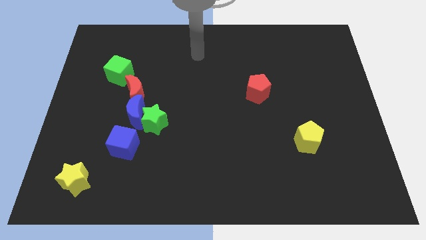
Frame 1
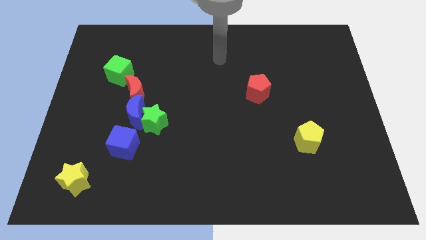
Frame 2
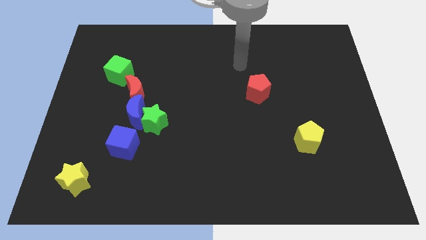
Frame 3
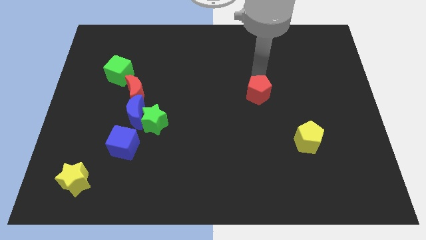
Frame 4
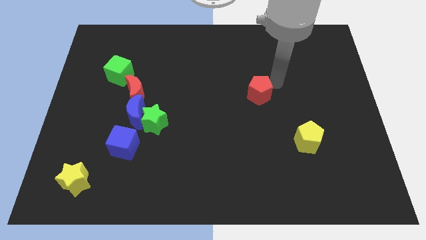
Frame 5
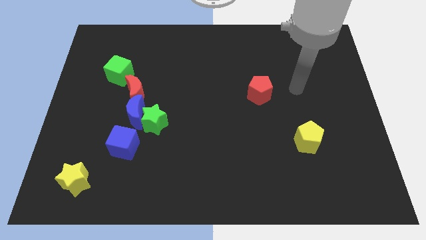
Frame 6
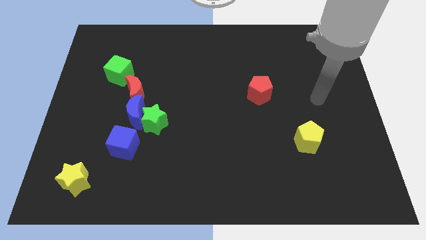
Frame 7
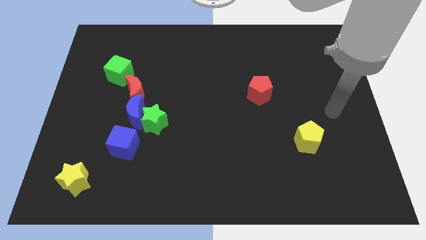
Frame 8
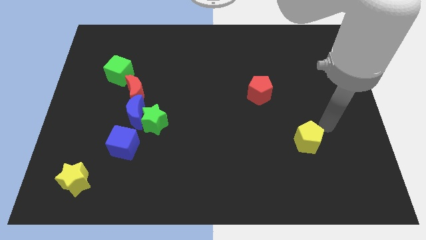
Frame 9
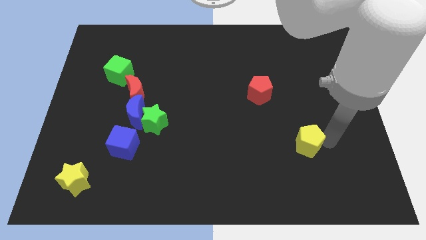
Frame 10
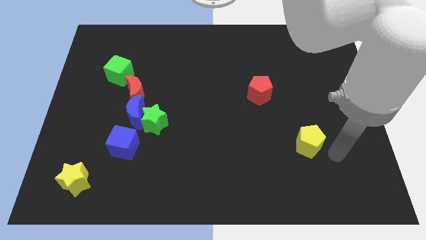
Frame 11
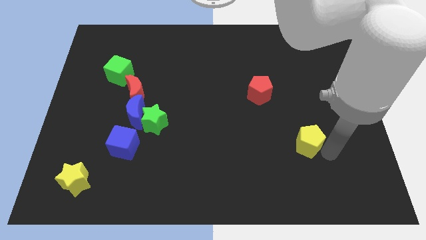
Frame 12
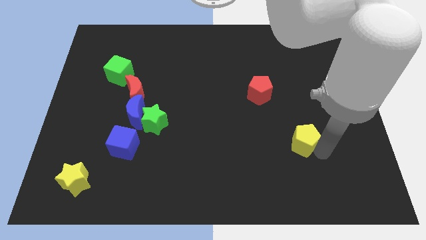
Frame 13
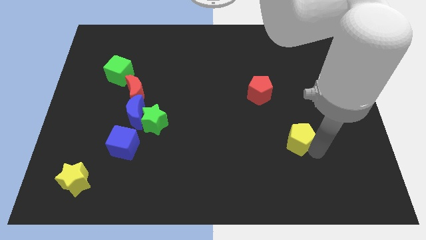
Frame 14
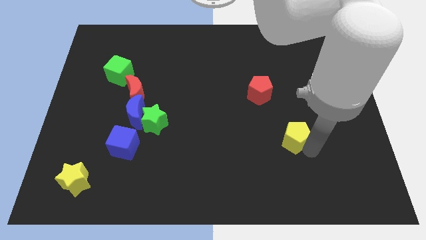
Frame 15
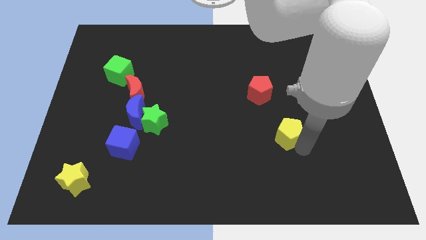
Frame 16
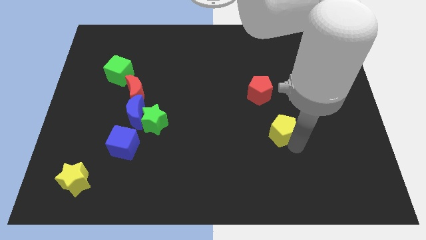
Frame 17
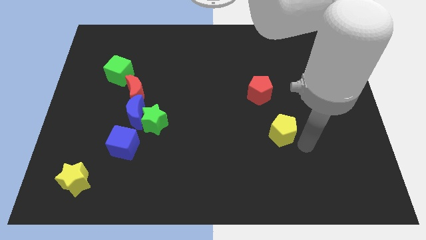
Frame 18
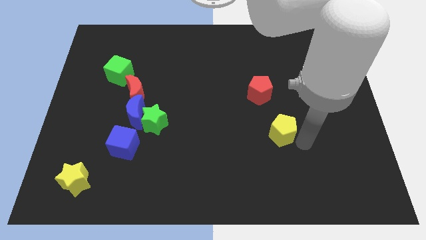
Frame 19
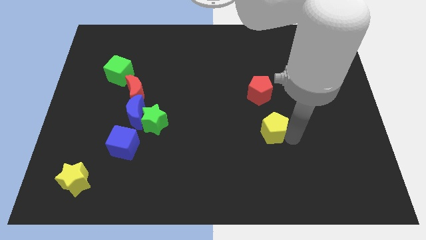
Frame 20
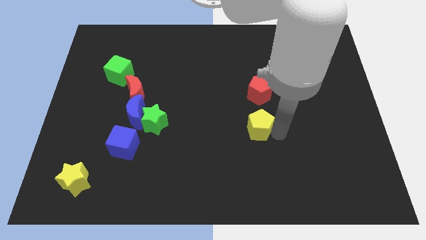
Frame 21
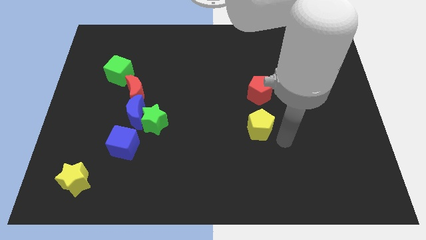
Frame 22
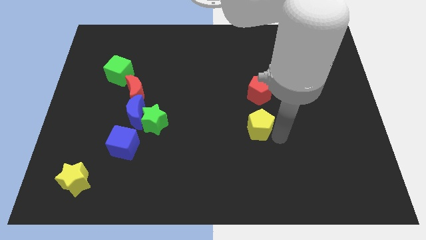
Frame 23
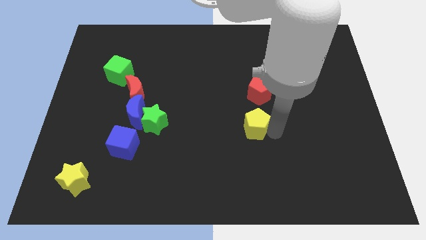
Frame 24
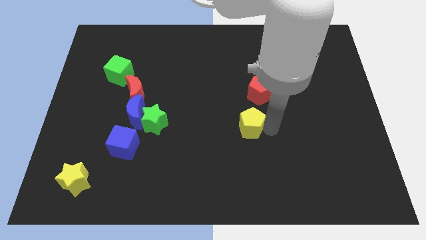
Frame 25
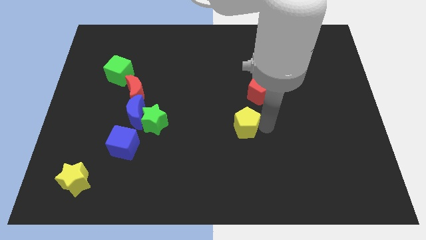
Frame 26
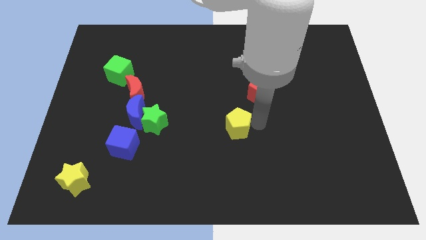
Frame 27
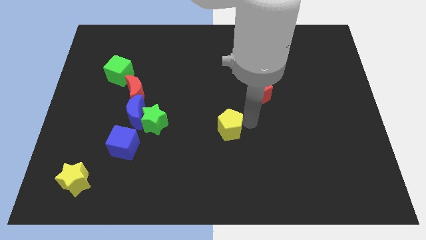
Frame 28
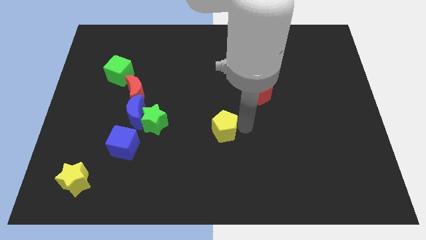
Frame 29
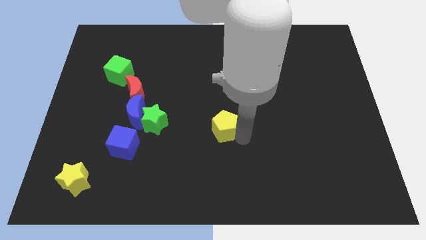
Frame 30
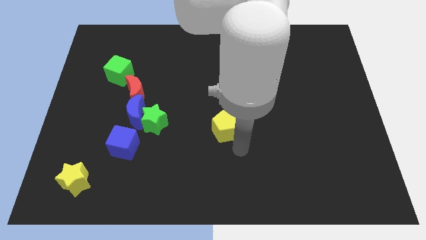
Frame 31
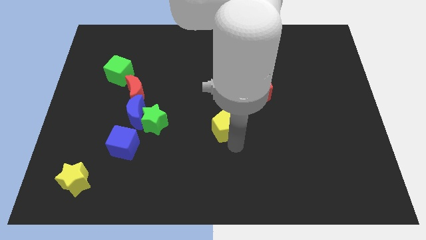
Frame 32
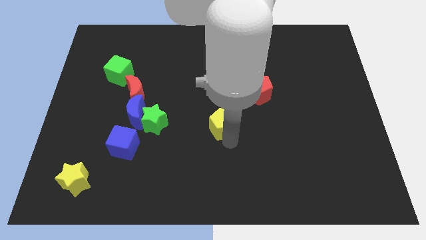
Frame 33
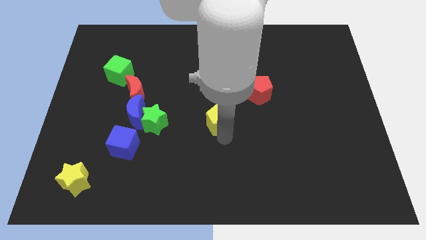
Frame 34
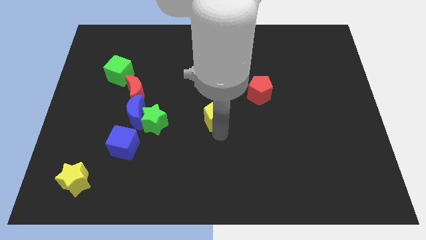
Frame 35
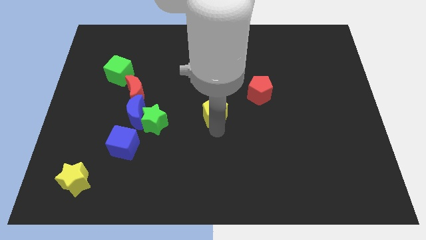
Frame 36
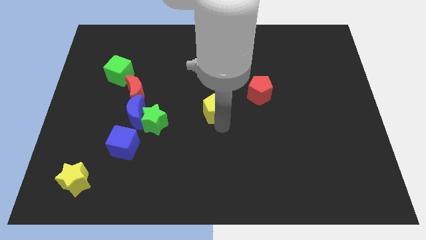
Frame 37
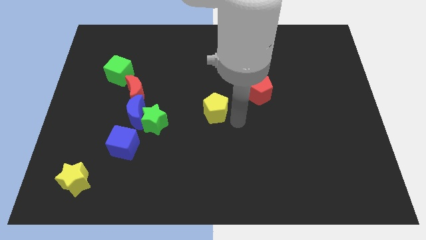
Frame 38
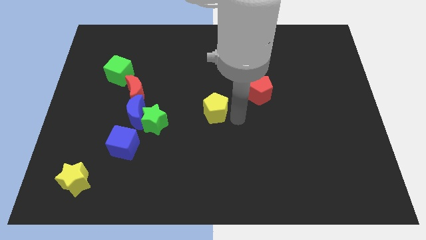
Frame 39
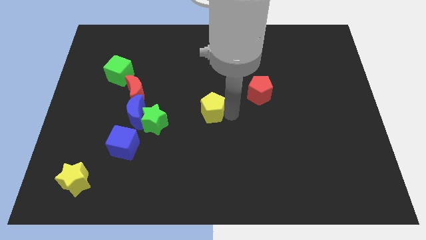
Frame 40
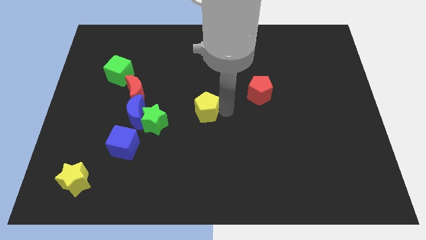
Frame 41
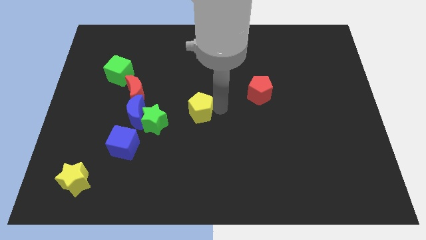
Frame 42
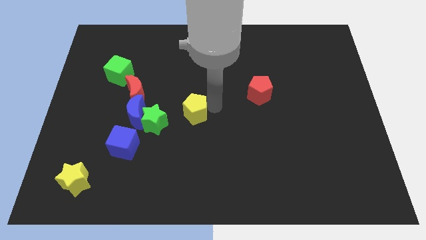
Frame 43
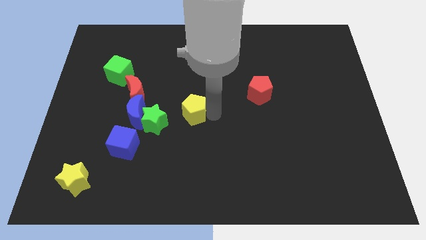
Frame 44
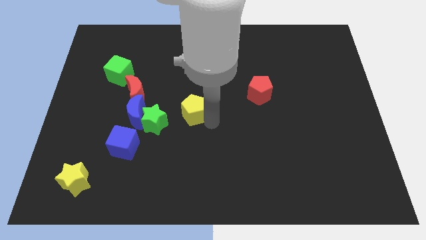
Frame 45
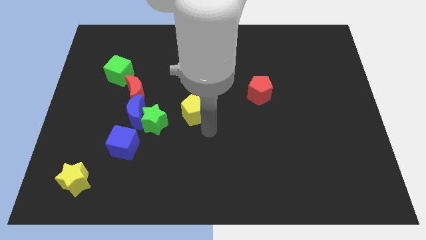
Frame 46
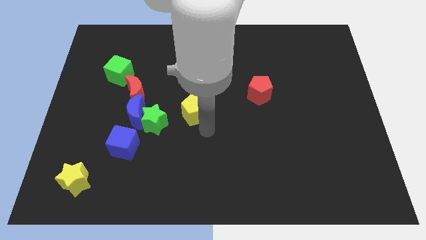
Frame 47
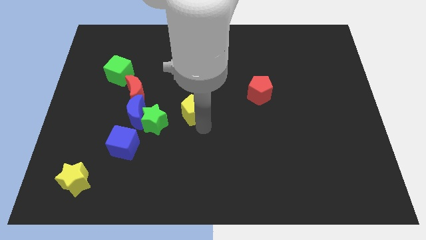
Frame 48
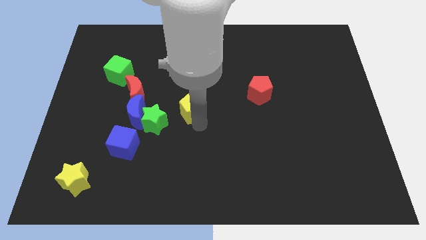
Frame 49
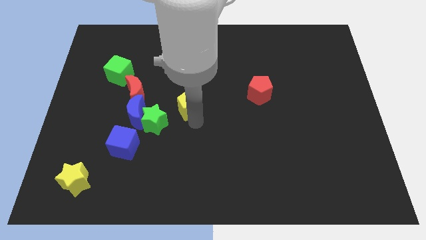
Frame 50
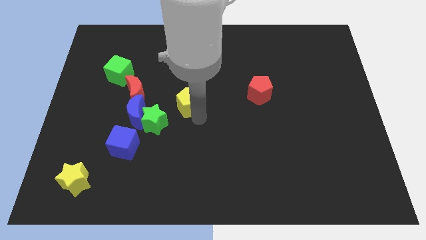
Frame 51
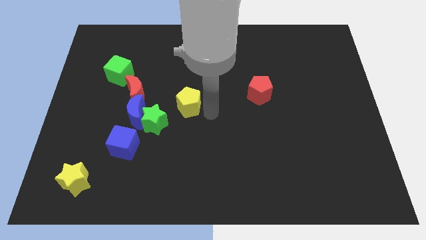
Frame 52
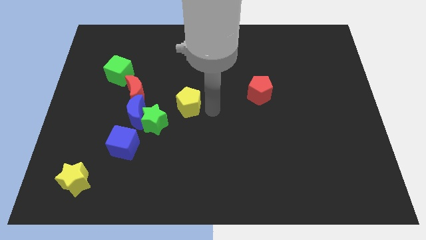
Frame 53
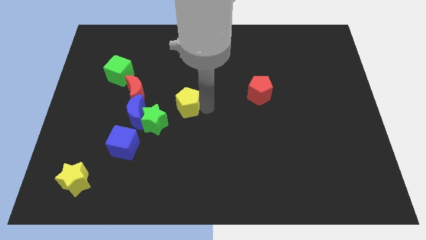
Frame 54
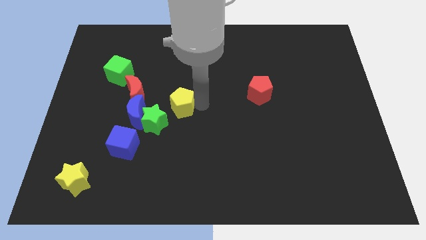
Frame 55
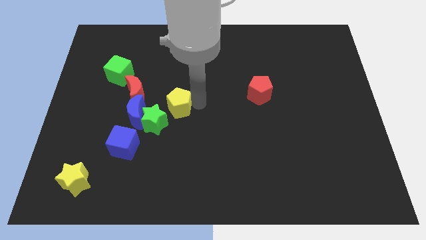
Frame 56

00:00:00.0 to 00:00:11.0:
slide the yellow pentagon to the top right of the blue moon

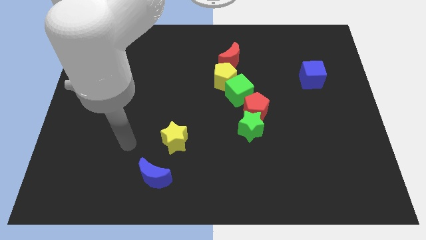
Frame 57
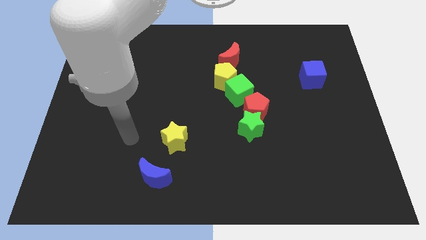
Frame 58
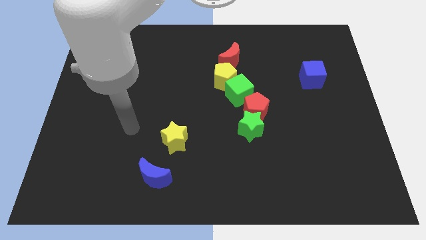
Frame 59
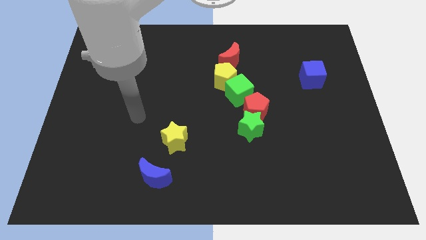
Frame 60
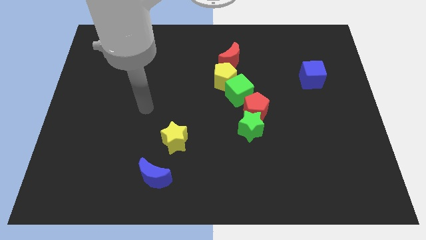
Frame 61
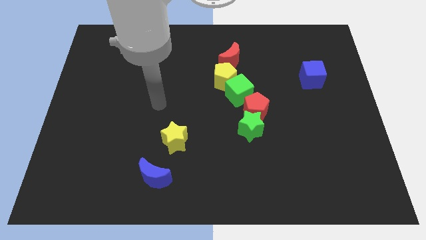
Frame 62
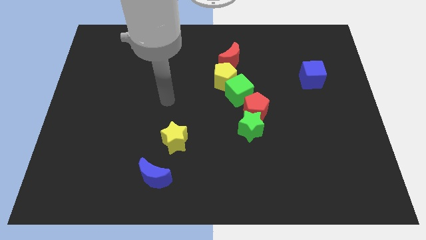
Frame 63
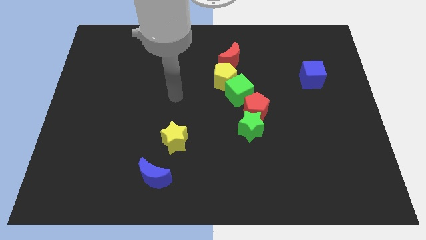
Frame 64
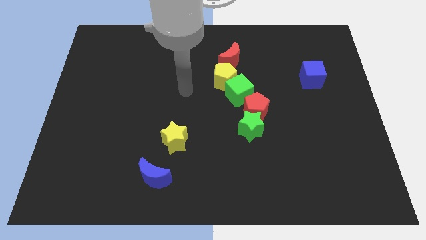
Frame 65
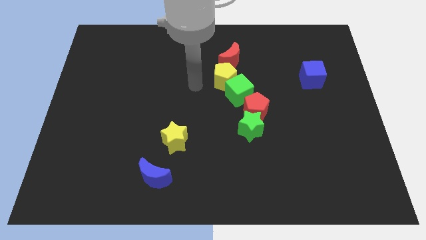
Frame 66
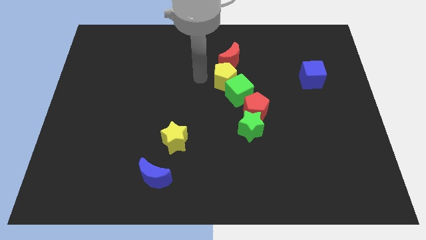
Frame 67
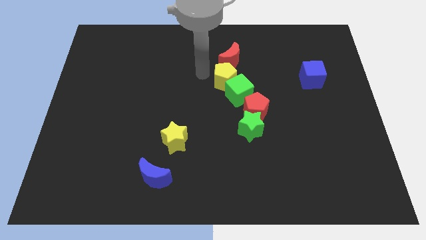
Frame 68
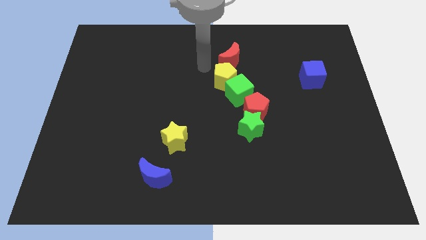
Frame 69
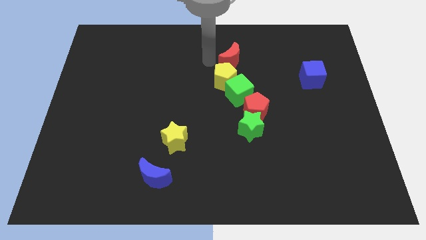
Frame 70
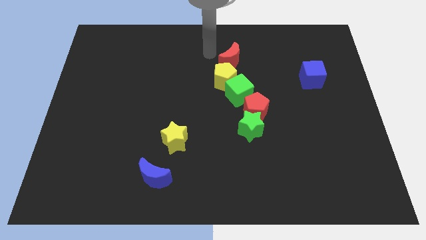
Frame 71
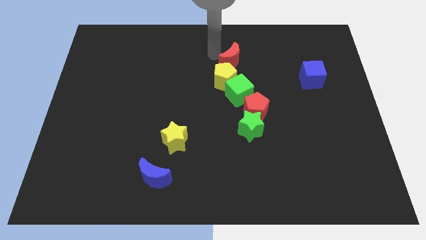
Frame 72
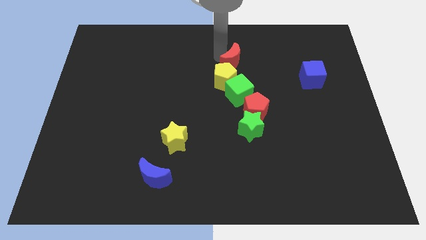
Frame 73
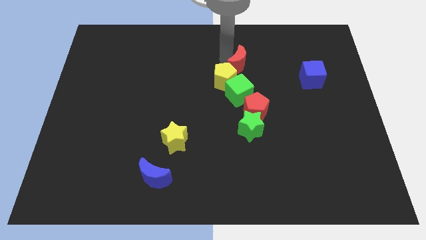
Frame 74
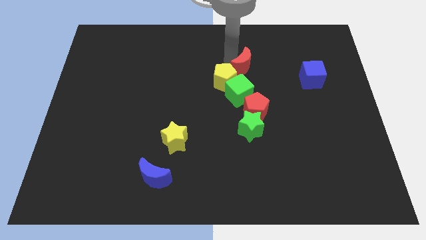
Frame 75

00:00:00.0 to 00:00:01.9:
put the red moon to the right of the yellow pentagon
